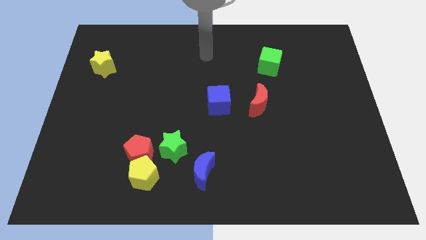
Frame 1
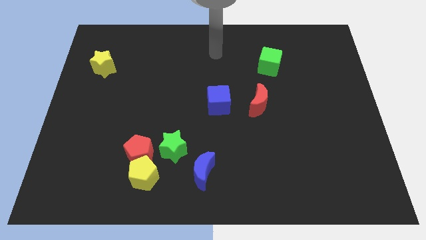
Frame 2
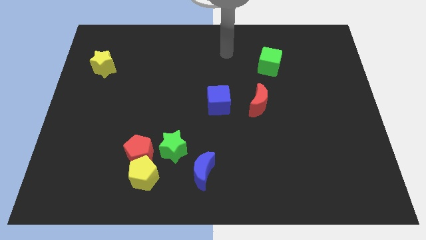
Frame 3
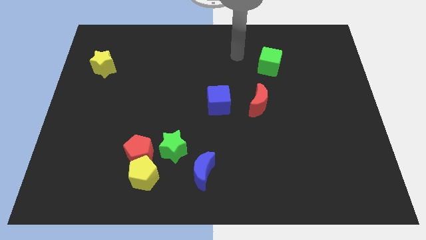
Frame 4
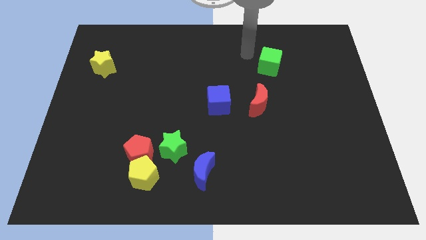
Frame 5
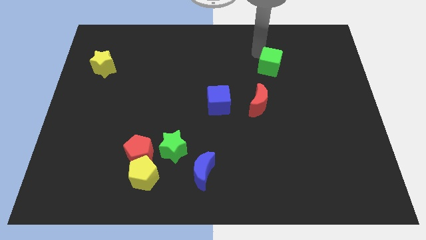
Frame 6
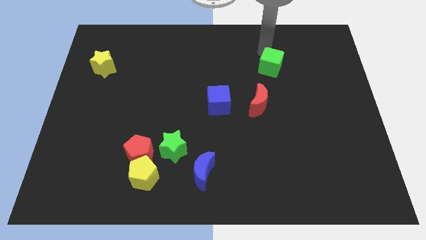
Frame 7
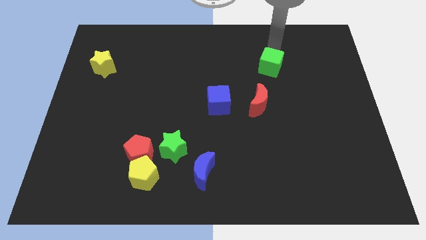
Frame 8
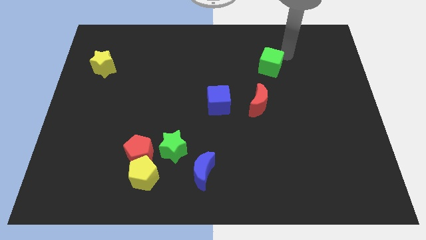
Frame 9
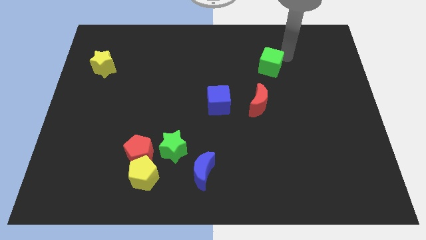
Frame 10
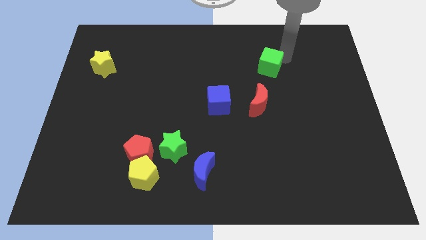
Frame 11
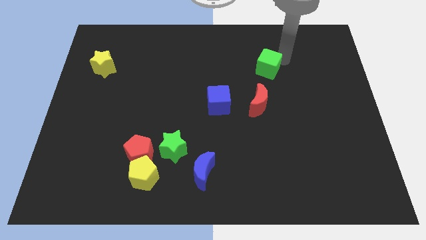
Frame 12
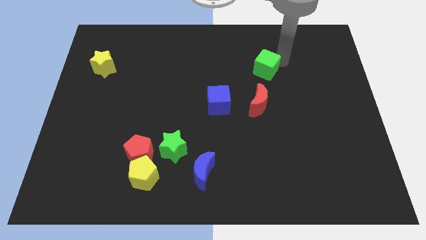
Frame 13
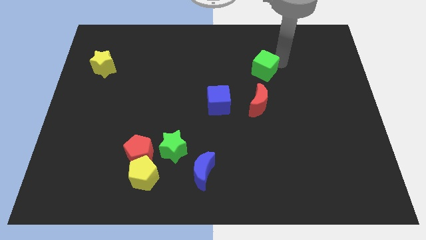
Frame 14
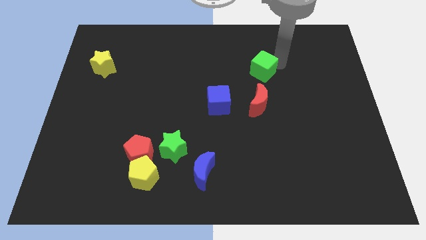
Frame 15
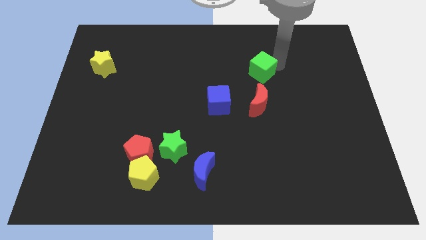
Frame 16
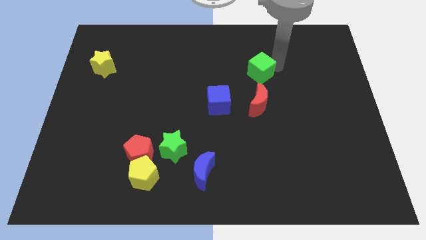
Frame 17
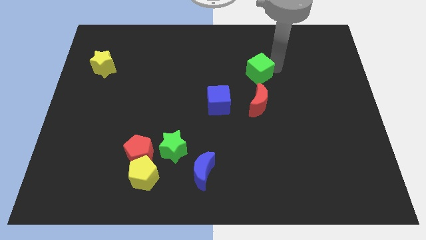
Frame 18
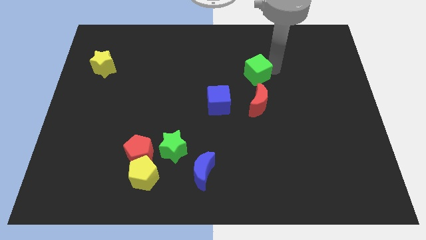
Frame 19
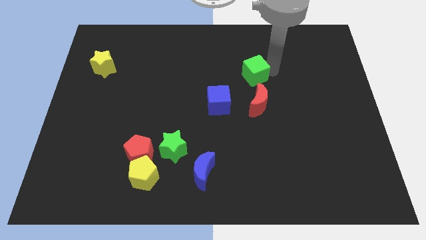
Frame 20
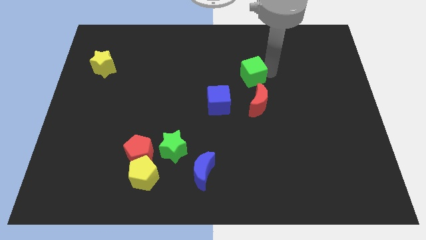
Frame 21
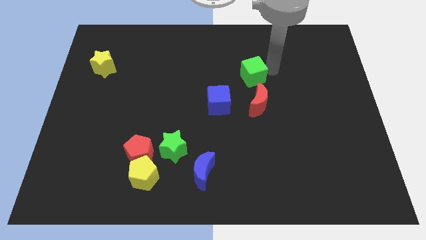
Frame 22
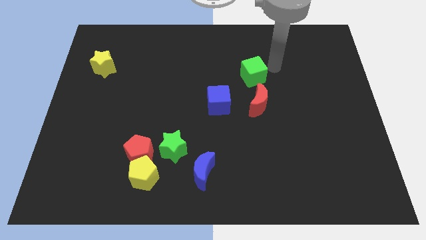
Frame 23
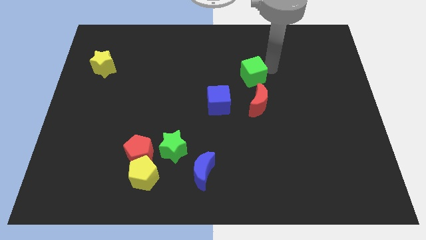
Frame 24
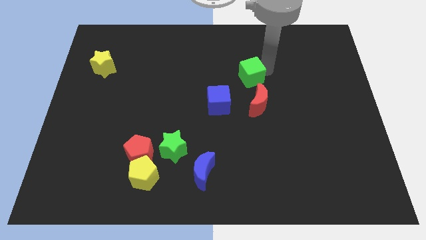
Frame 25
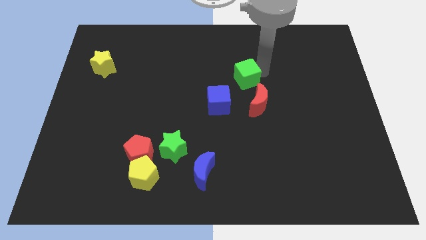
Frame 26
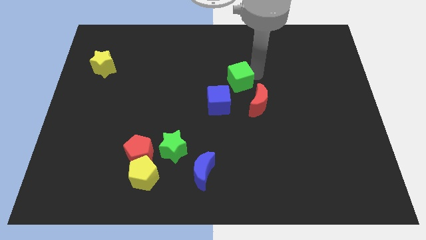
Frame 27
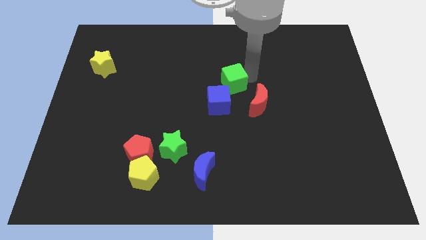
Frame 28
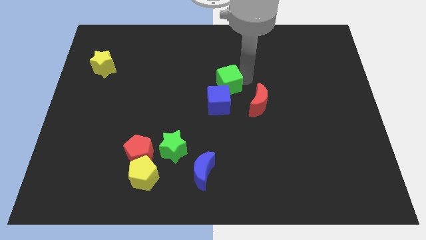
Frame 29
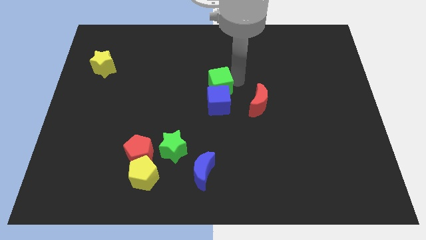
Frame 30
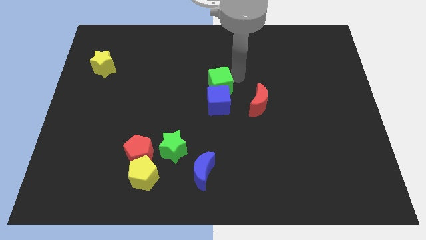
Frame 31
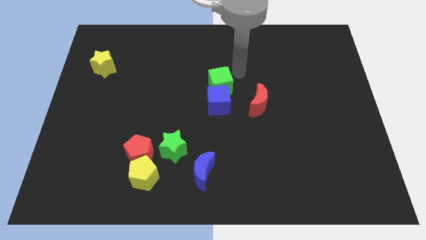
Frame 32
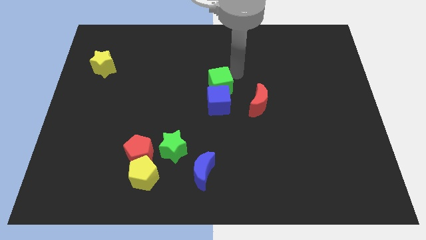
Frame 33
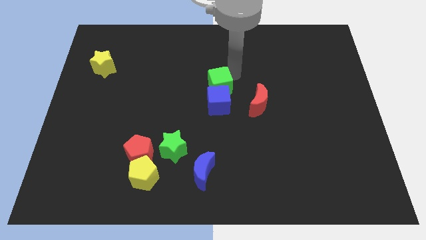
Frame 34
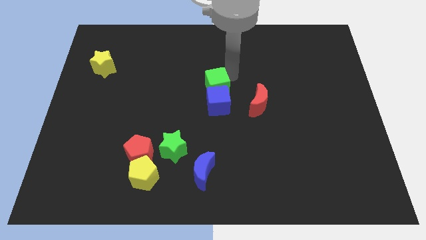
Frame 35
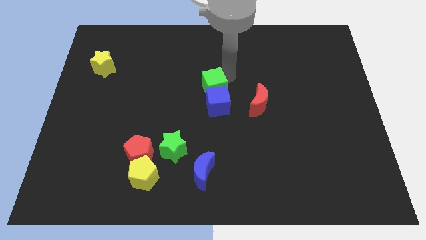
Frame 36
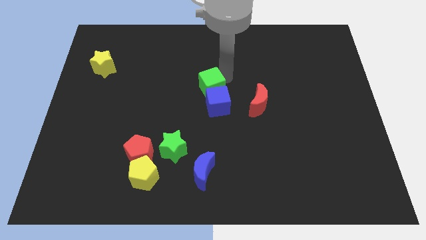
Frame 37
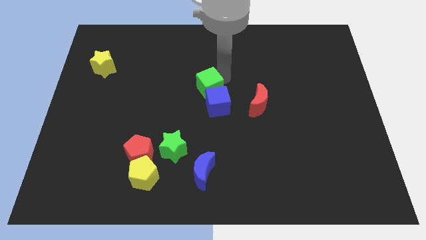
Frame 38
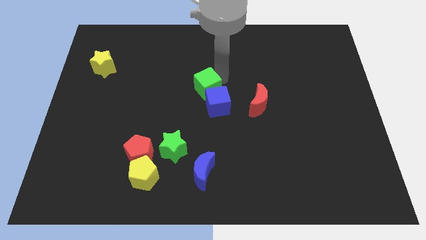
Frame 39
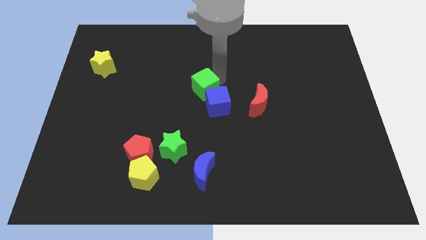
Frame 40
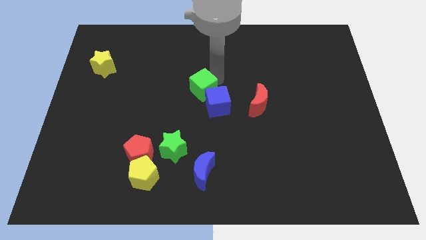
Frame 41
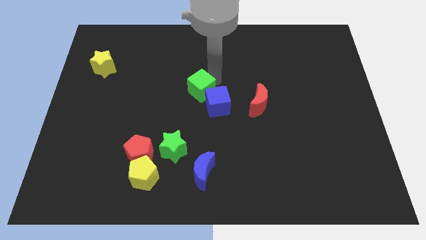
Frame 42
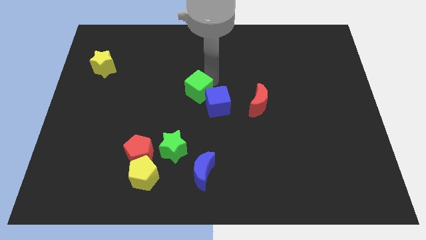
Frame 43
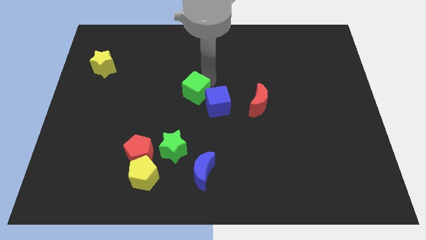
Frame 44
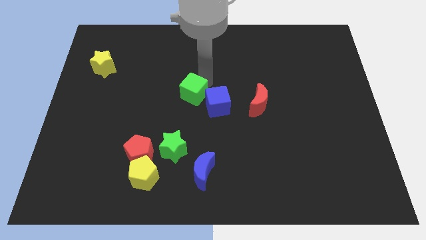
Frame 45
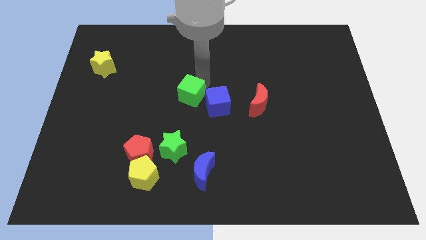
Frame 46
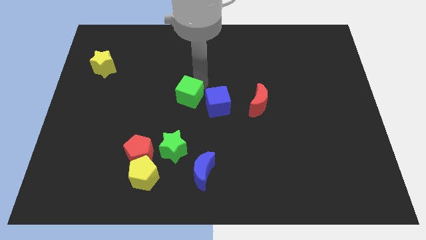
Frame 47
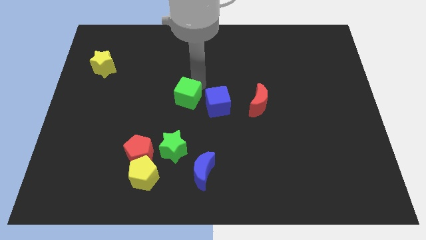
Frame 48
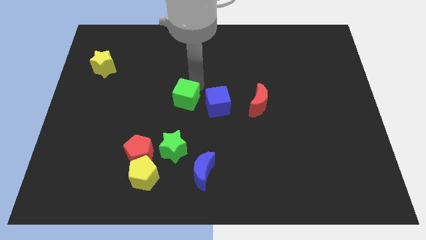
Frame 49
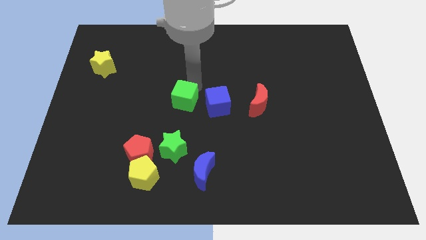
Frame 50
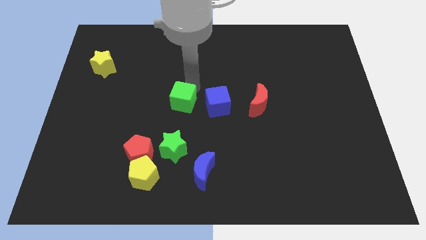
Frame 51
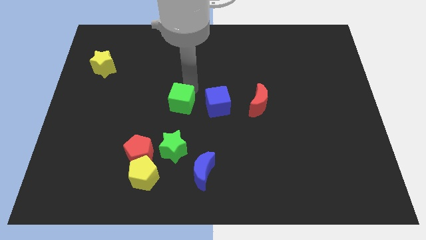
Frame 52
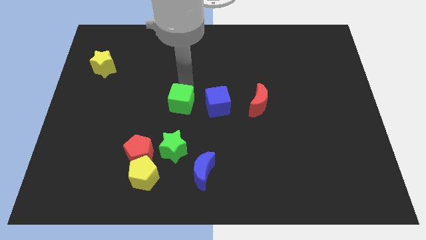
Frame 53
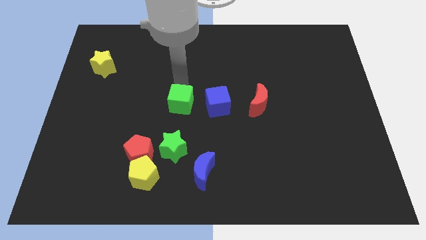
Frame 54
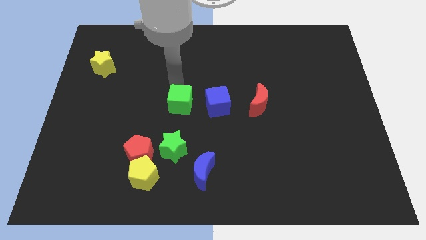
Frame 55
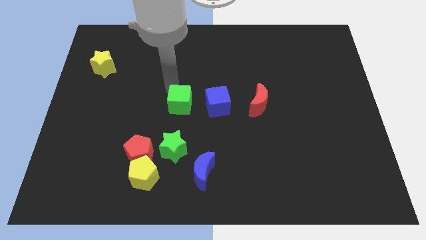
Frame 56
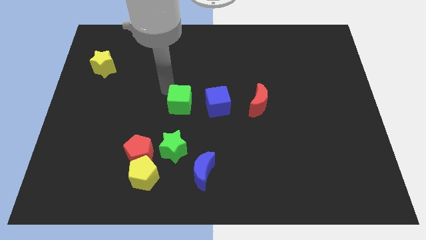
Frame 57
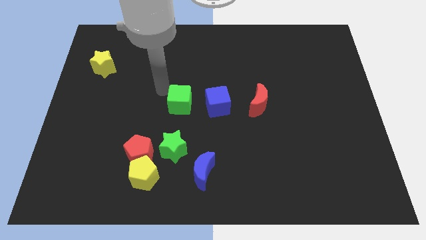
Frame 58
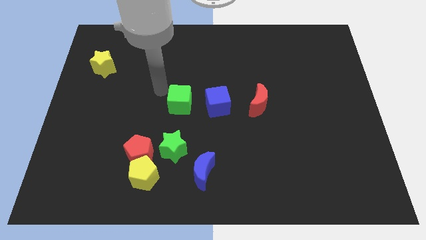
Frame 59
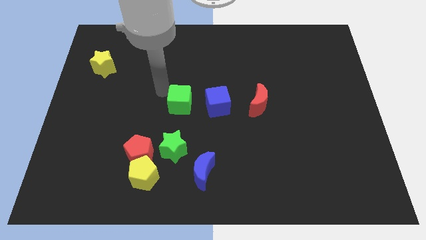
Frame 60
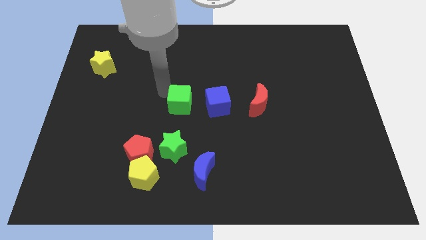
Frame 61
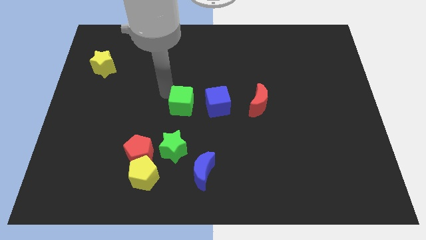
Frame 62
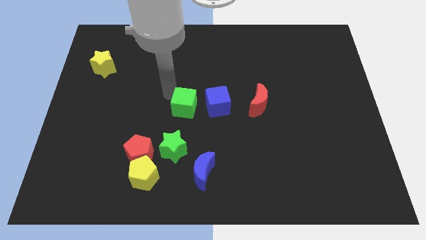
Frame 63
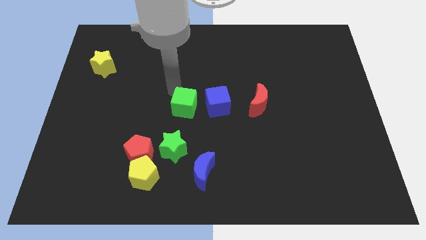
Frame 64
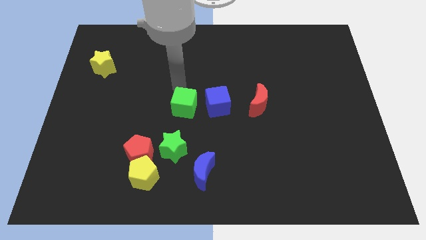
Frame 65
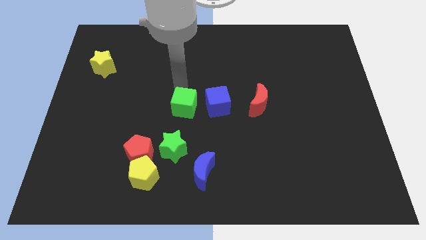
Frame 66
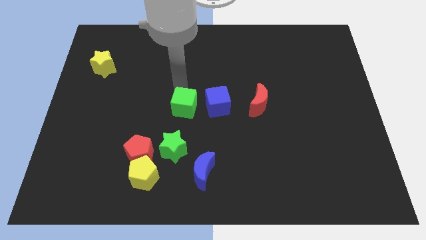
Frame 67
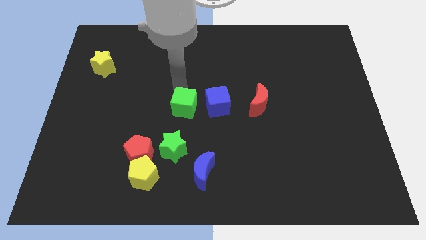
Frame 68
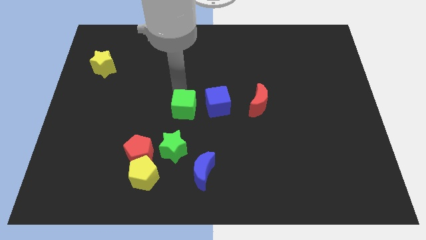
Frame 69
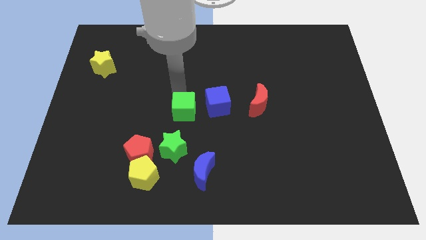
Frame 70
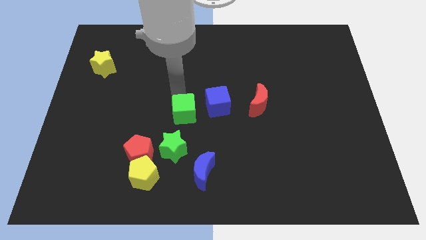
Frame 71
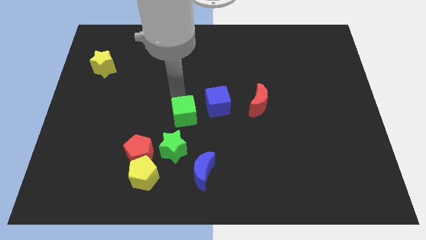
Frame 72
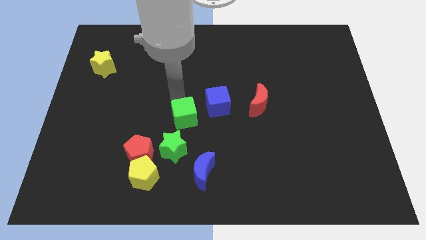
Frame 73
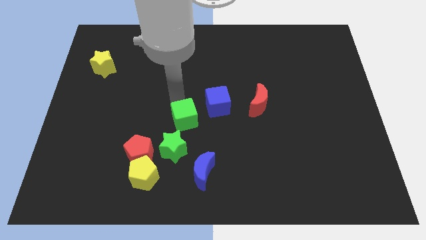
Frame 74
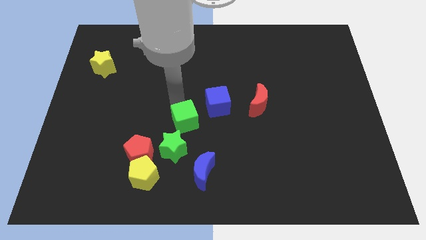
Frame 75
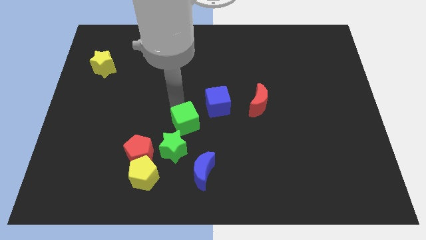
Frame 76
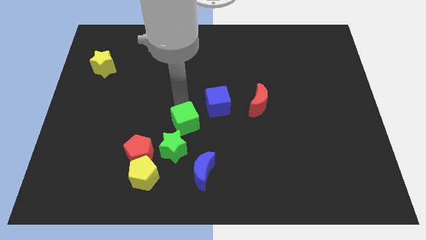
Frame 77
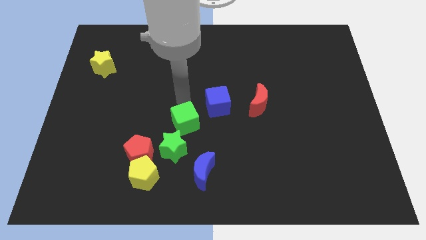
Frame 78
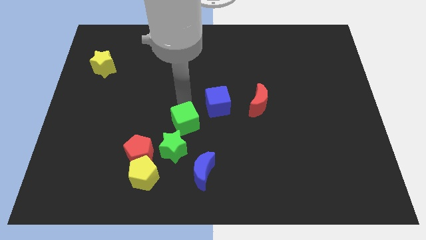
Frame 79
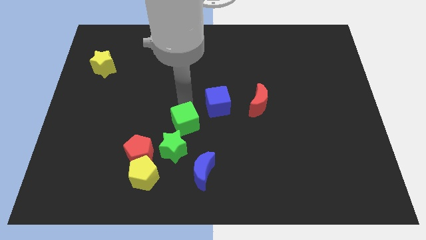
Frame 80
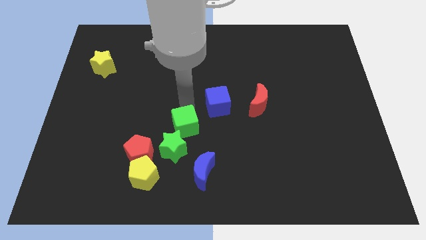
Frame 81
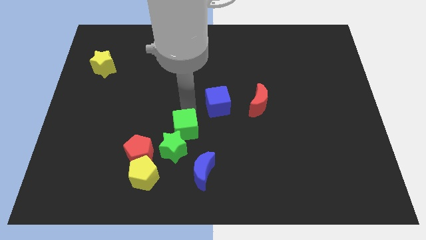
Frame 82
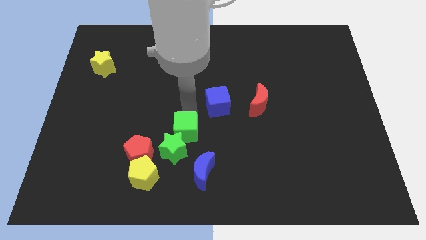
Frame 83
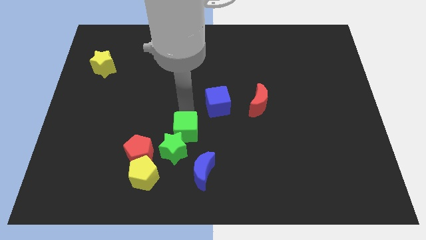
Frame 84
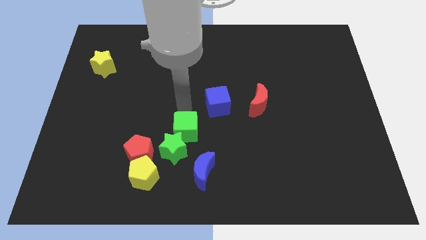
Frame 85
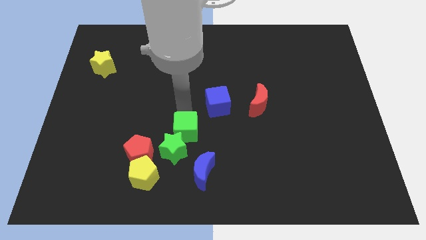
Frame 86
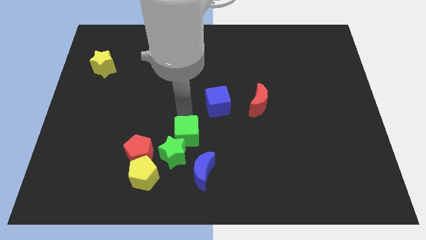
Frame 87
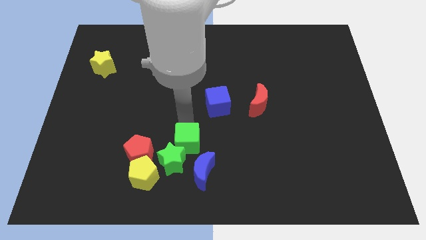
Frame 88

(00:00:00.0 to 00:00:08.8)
put the green cube right of the red pentagon
